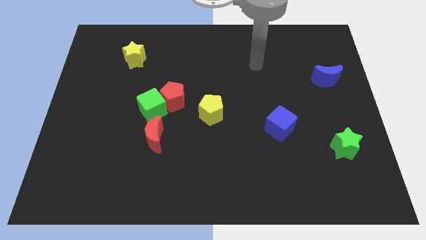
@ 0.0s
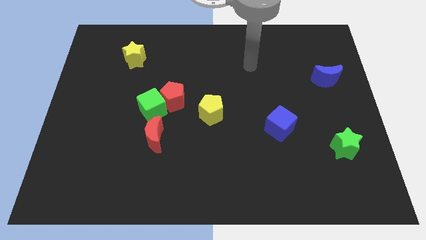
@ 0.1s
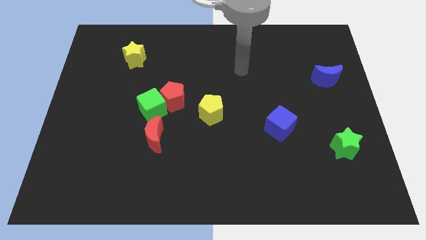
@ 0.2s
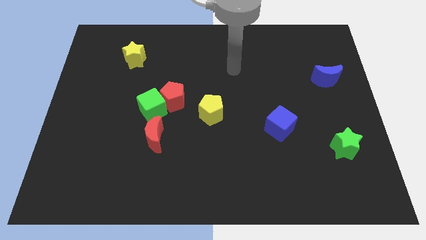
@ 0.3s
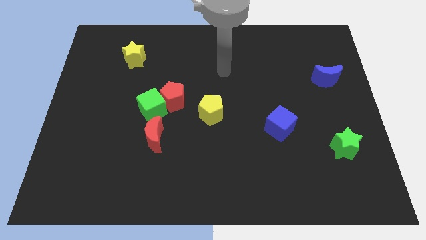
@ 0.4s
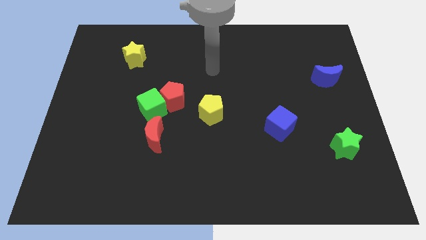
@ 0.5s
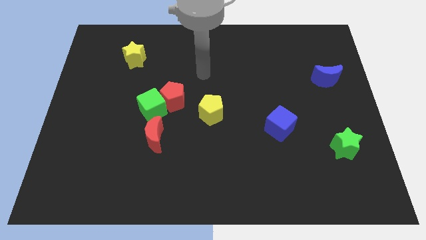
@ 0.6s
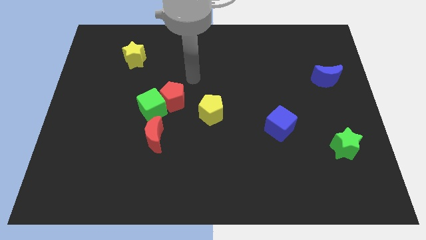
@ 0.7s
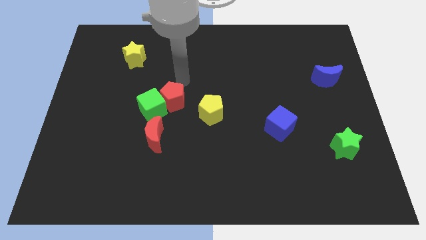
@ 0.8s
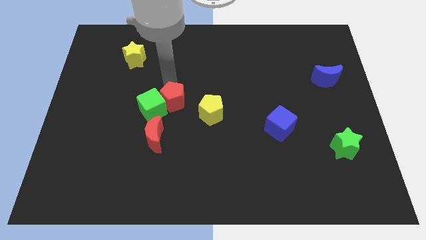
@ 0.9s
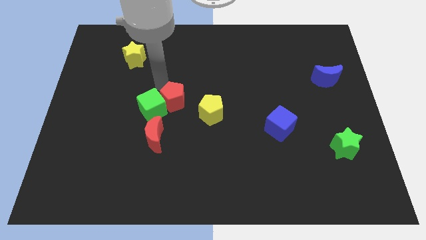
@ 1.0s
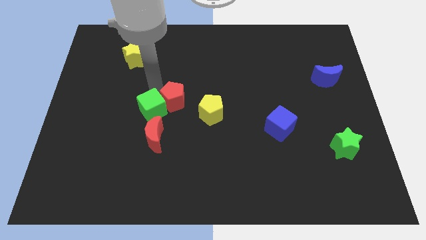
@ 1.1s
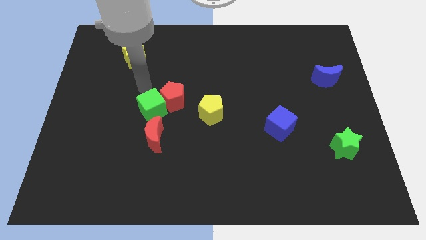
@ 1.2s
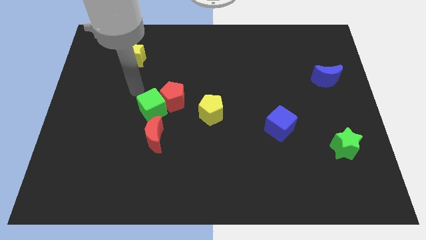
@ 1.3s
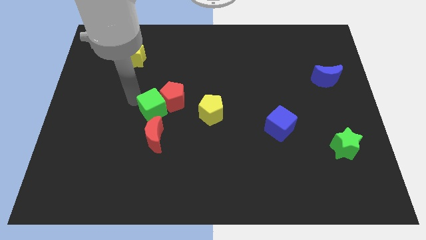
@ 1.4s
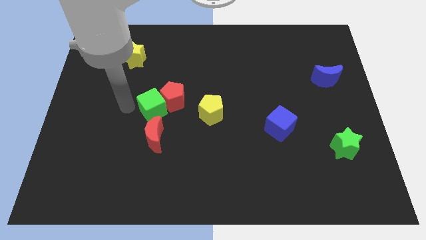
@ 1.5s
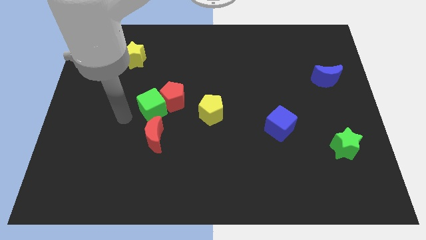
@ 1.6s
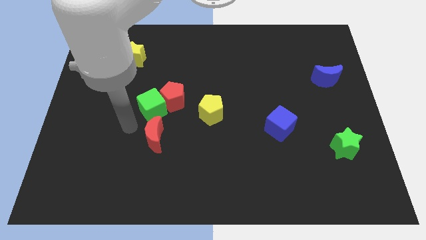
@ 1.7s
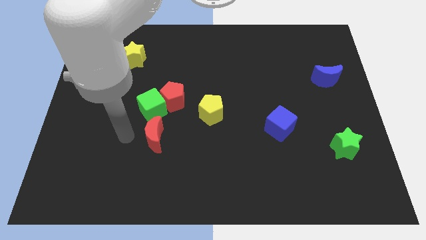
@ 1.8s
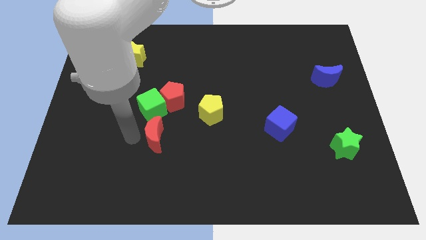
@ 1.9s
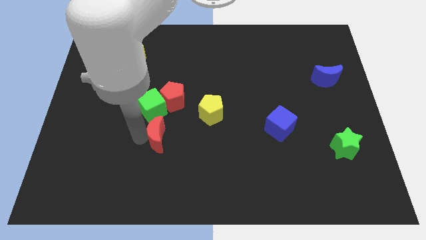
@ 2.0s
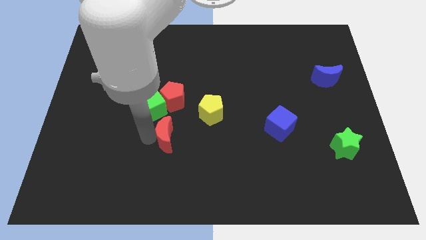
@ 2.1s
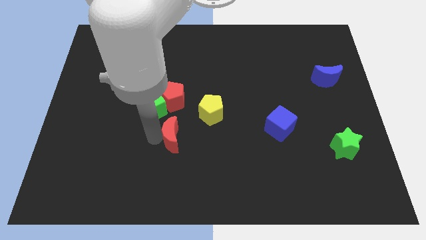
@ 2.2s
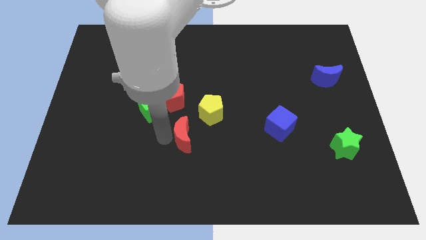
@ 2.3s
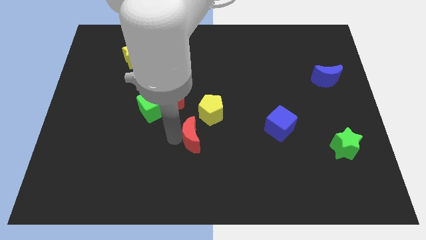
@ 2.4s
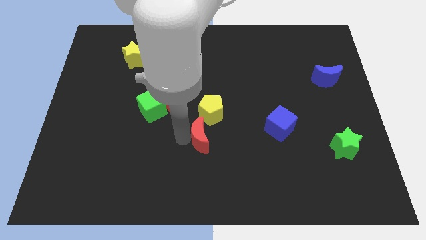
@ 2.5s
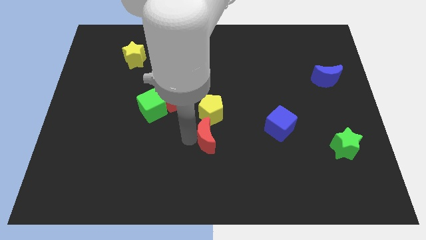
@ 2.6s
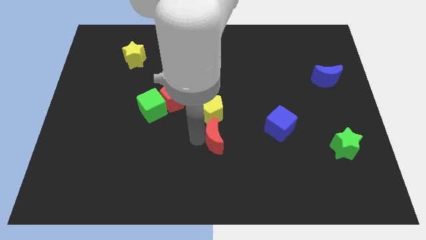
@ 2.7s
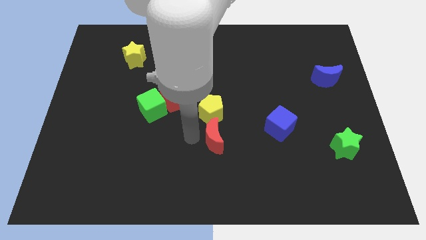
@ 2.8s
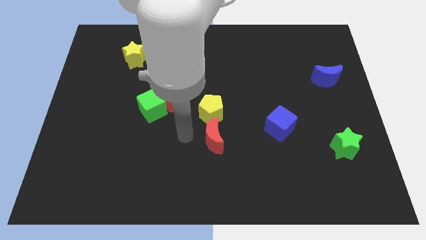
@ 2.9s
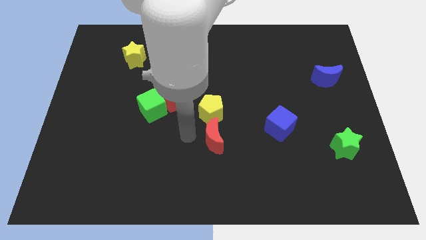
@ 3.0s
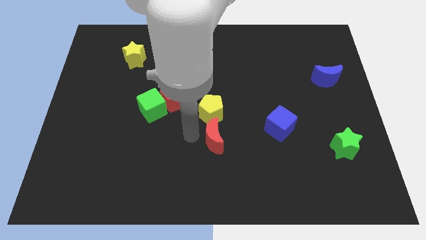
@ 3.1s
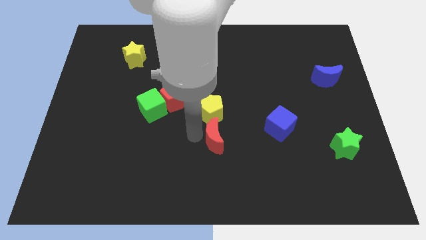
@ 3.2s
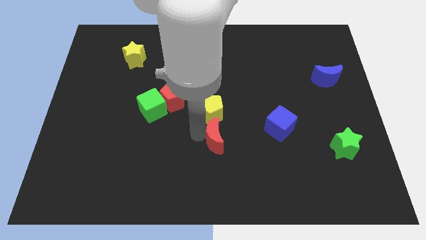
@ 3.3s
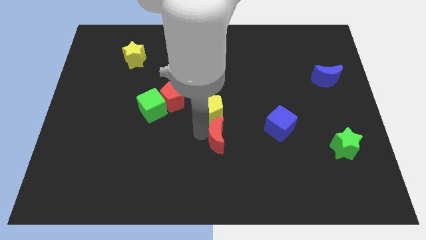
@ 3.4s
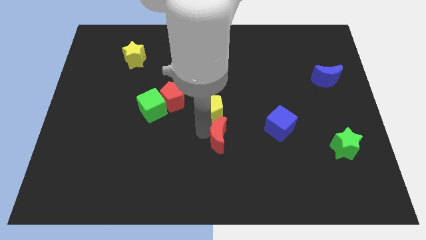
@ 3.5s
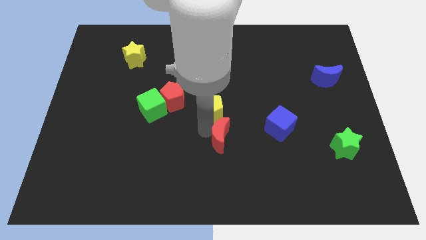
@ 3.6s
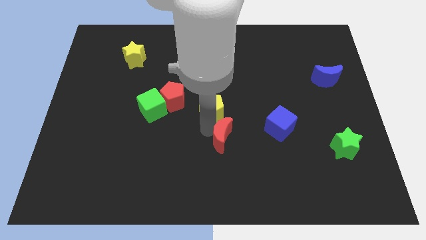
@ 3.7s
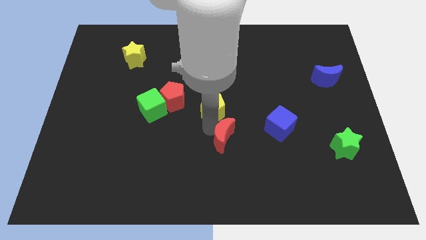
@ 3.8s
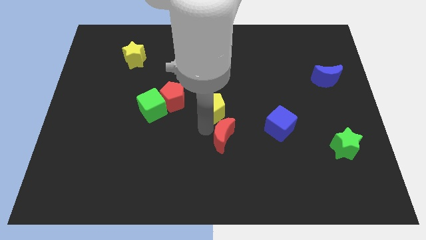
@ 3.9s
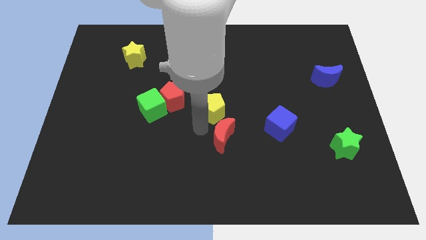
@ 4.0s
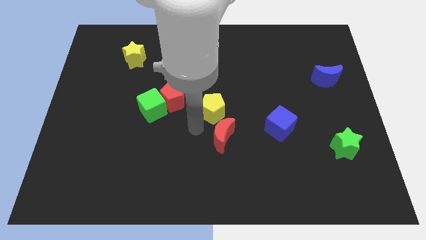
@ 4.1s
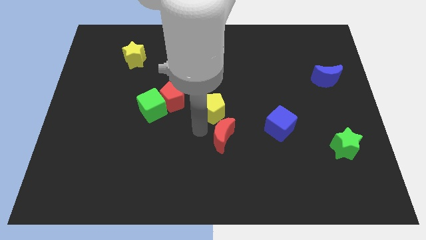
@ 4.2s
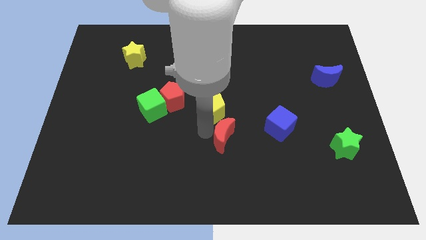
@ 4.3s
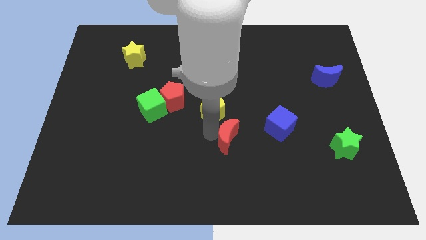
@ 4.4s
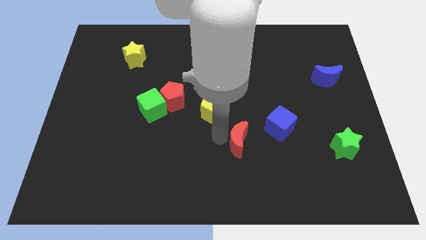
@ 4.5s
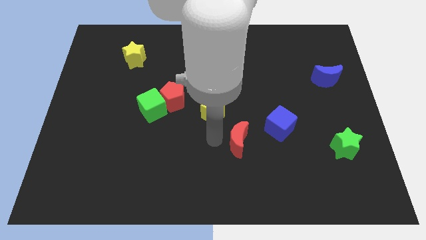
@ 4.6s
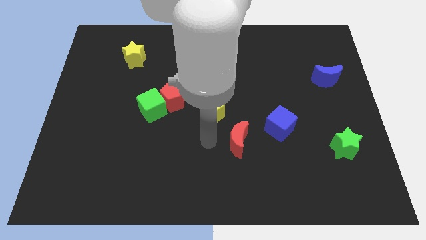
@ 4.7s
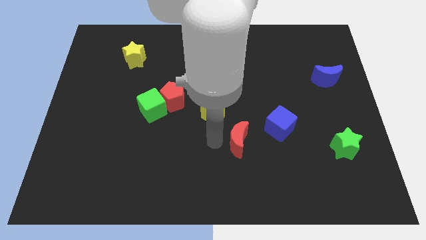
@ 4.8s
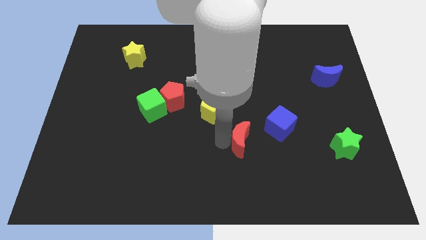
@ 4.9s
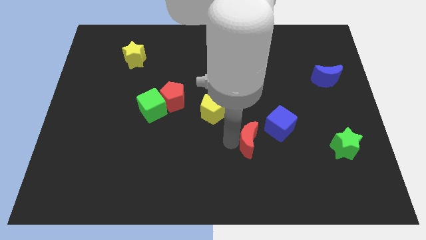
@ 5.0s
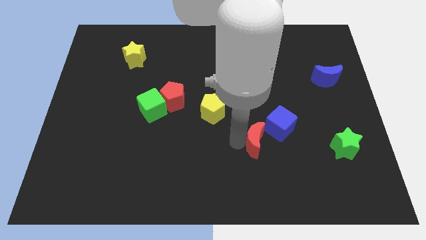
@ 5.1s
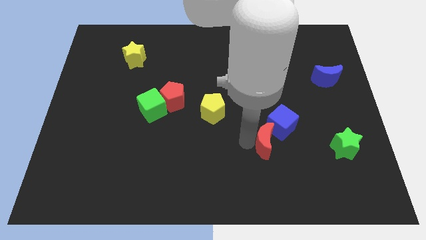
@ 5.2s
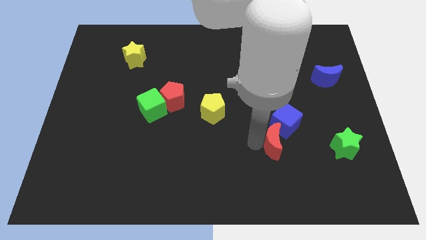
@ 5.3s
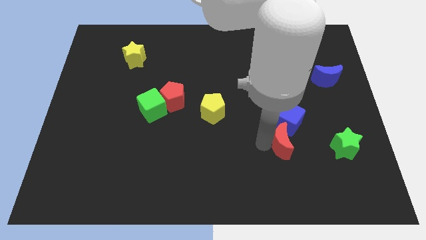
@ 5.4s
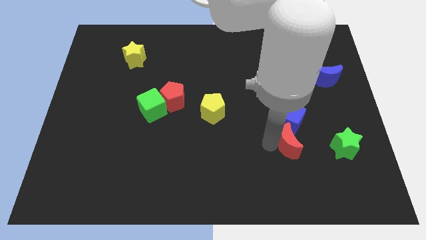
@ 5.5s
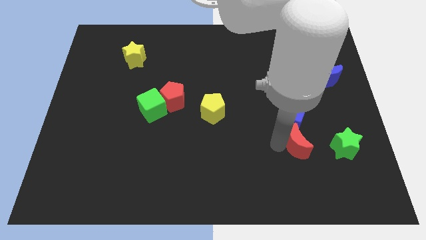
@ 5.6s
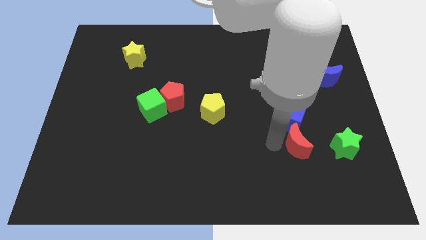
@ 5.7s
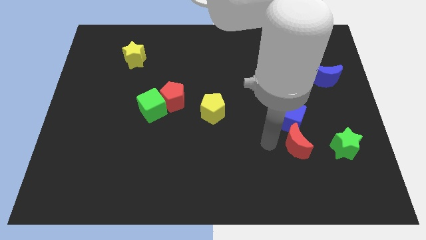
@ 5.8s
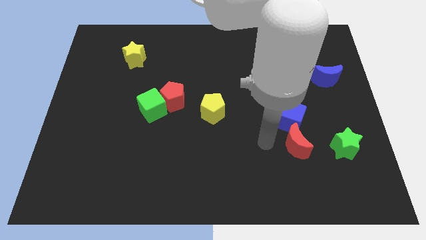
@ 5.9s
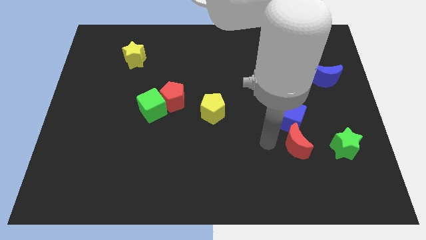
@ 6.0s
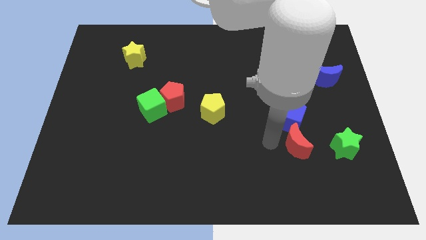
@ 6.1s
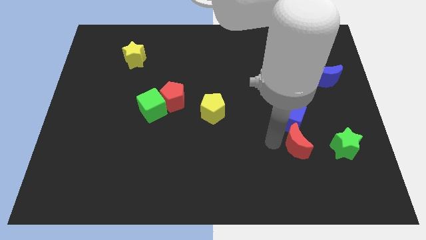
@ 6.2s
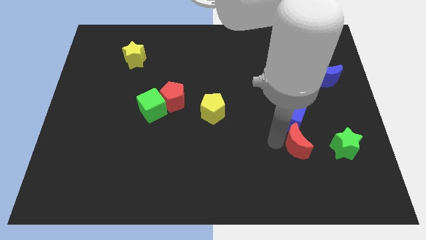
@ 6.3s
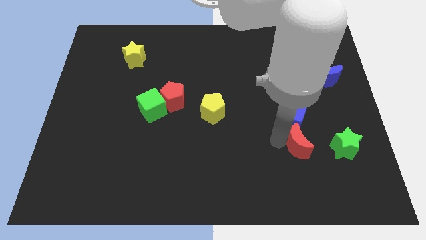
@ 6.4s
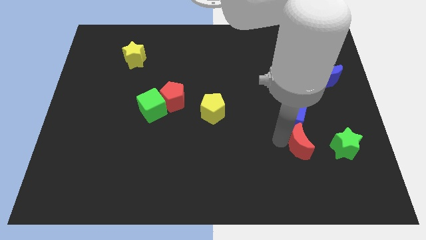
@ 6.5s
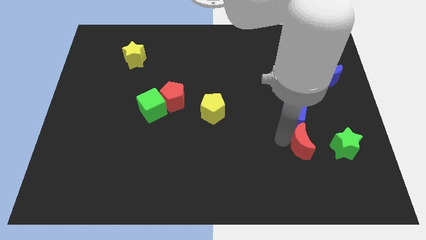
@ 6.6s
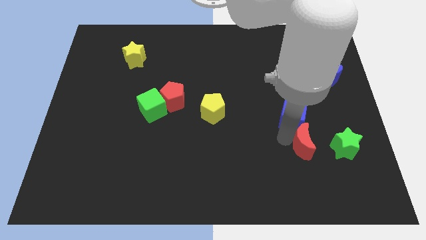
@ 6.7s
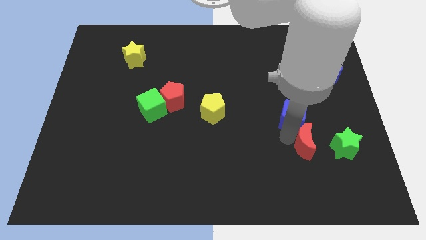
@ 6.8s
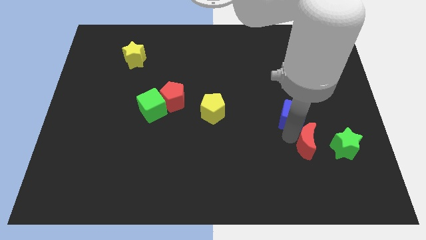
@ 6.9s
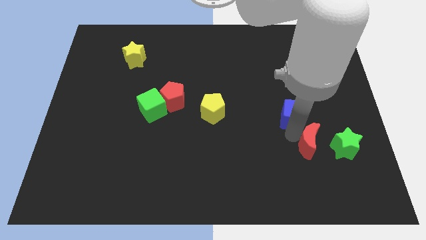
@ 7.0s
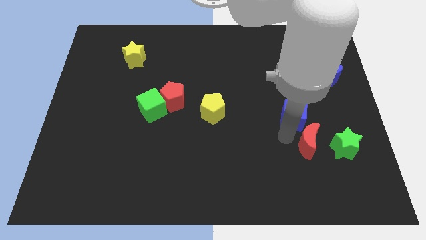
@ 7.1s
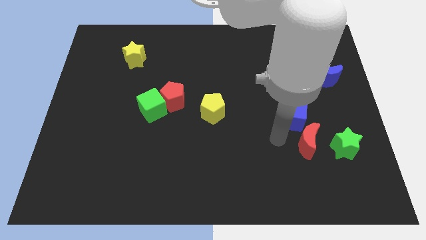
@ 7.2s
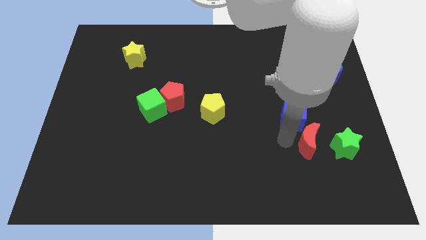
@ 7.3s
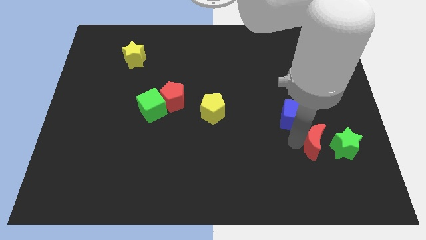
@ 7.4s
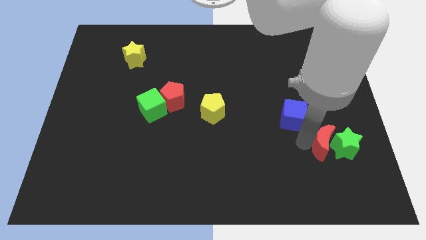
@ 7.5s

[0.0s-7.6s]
move the red moon close to the green star

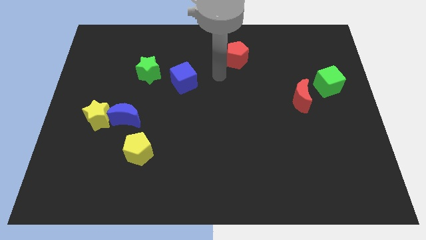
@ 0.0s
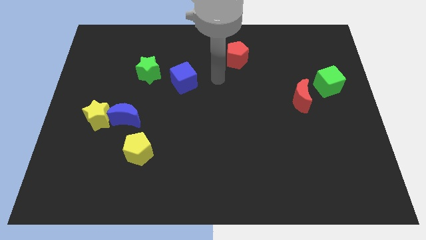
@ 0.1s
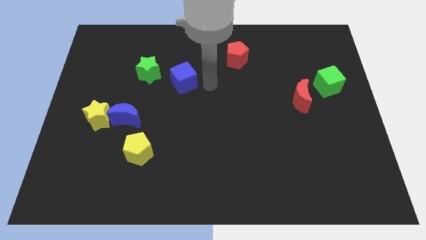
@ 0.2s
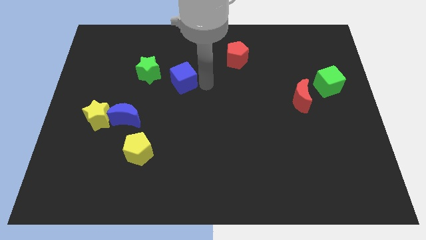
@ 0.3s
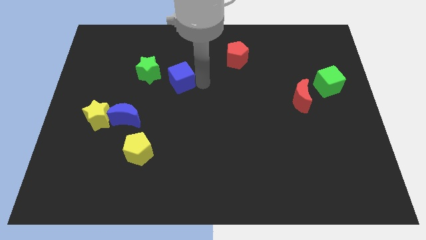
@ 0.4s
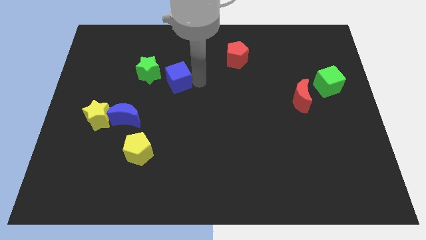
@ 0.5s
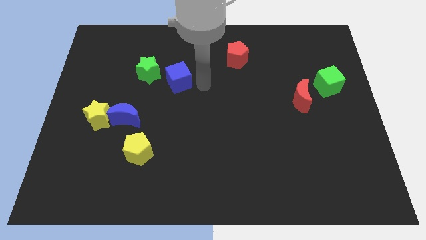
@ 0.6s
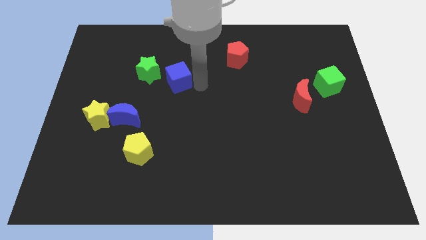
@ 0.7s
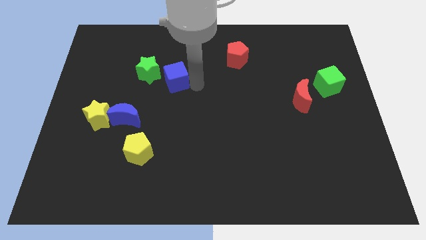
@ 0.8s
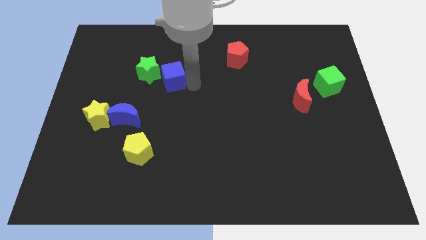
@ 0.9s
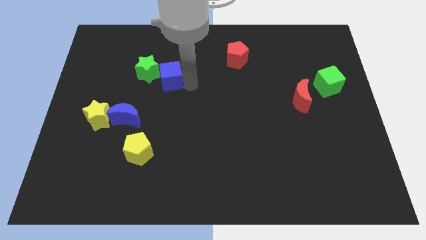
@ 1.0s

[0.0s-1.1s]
put the blue cube towards the green star
